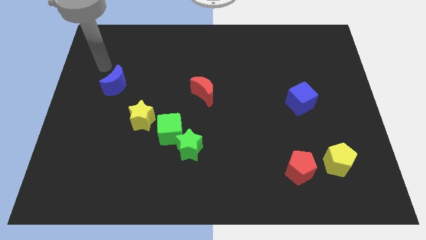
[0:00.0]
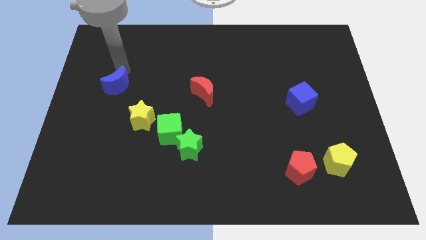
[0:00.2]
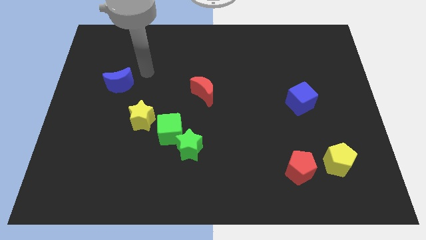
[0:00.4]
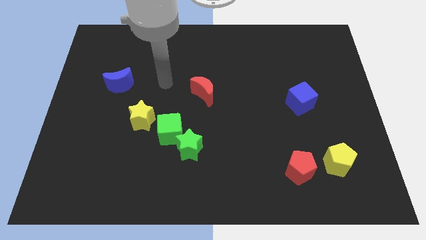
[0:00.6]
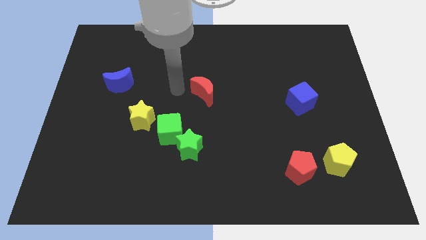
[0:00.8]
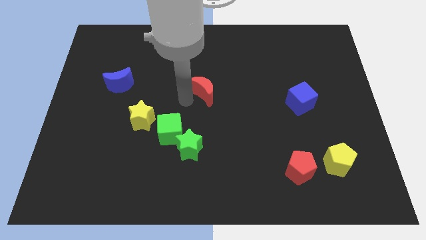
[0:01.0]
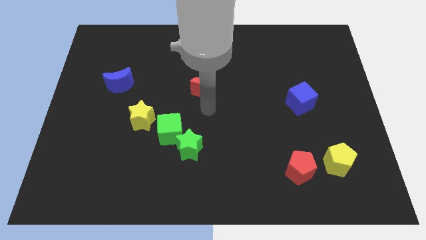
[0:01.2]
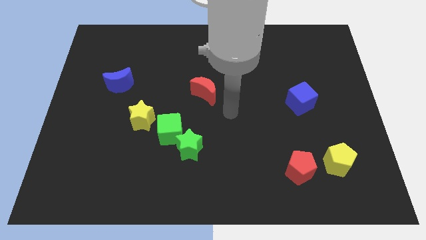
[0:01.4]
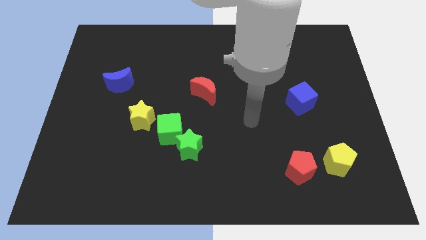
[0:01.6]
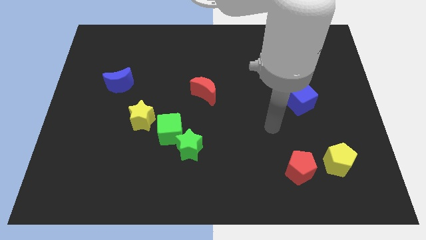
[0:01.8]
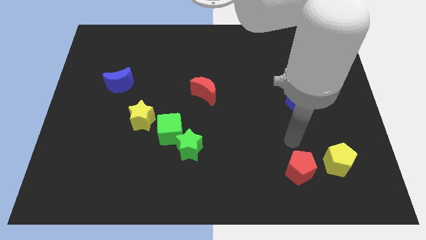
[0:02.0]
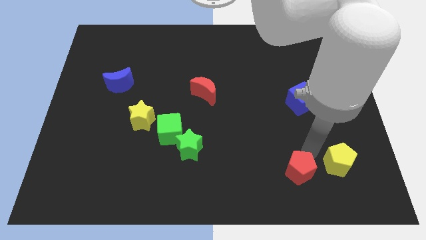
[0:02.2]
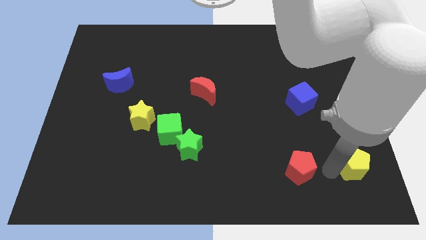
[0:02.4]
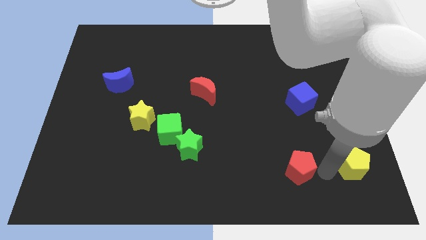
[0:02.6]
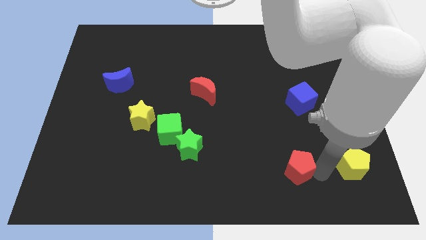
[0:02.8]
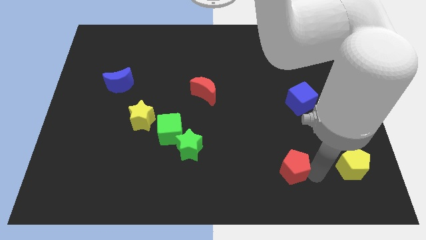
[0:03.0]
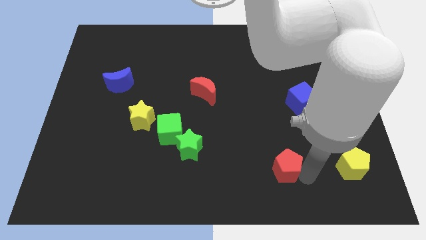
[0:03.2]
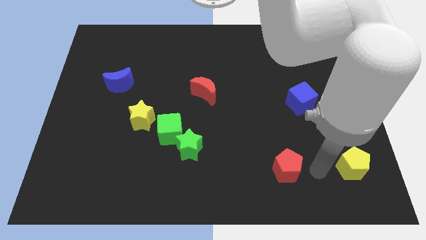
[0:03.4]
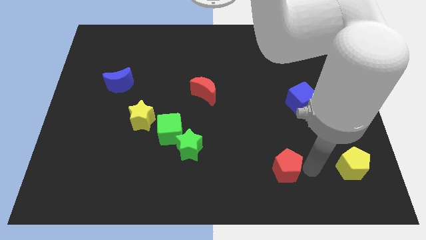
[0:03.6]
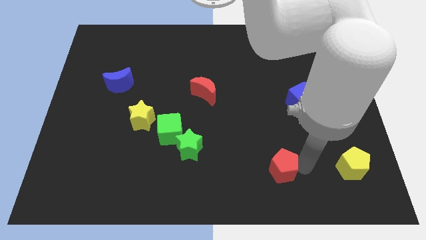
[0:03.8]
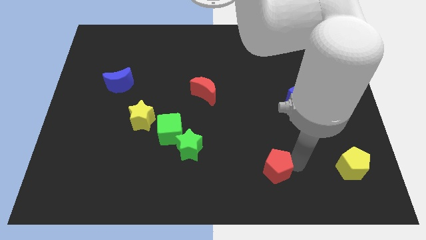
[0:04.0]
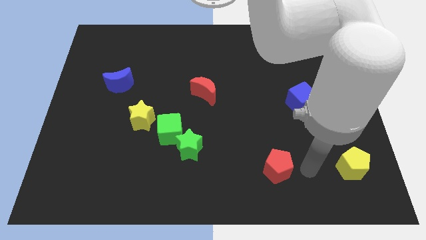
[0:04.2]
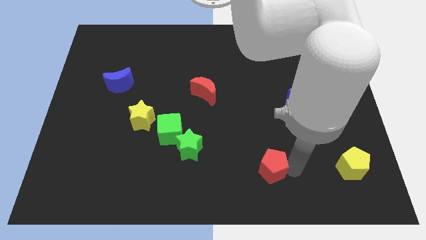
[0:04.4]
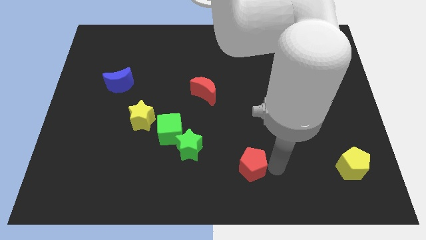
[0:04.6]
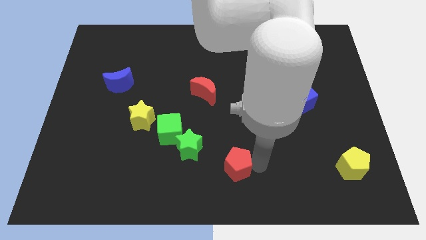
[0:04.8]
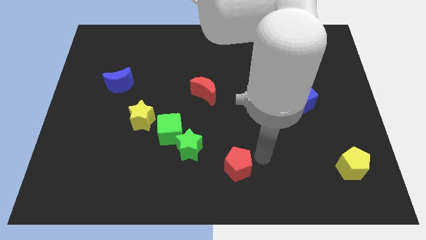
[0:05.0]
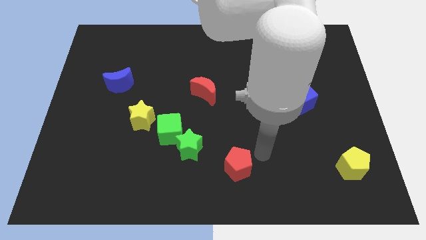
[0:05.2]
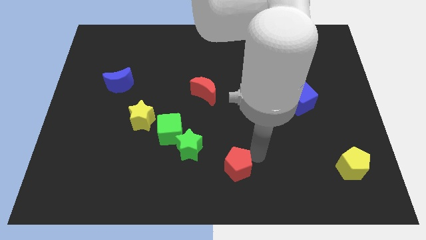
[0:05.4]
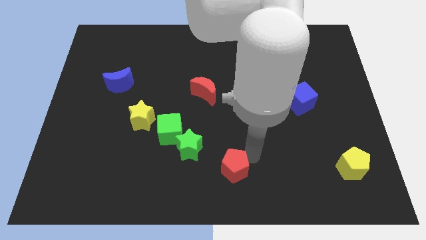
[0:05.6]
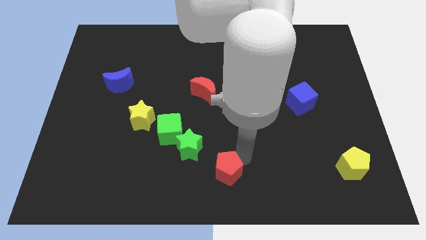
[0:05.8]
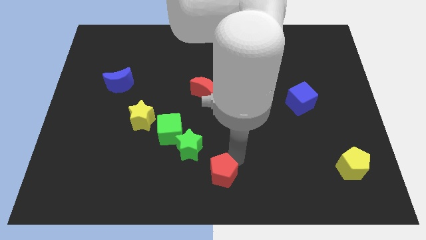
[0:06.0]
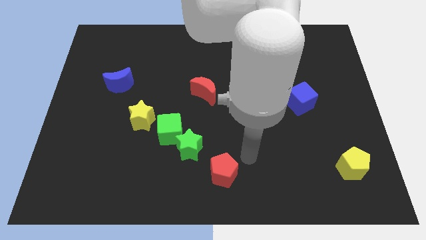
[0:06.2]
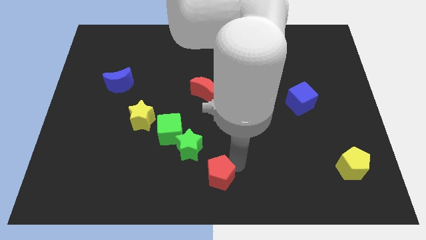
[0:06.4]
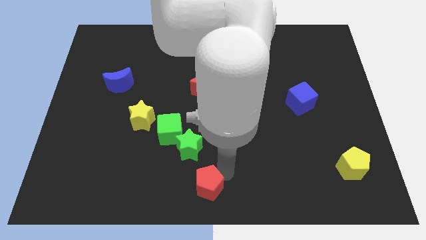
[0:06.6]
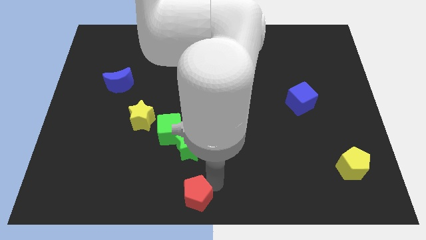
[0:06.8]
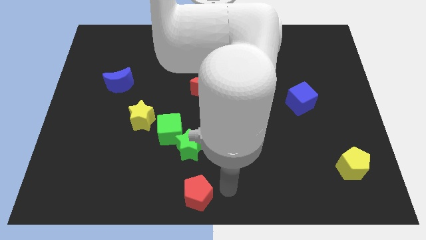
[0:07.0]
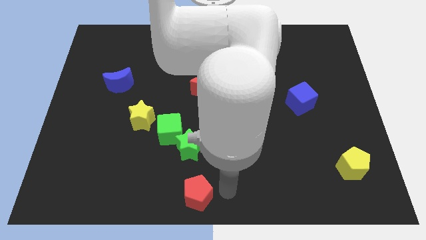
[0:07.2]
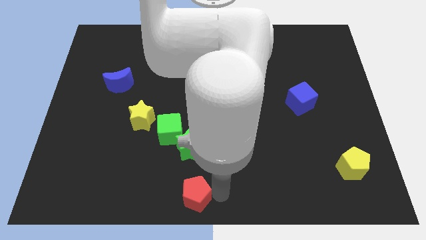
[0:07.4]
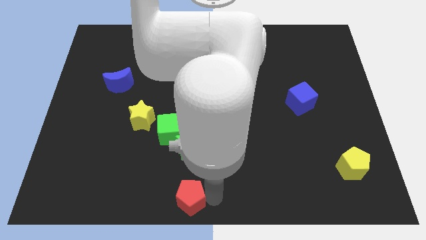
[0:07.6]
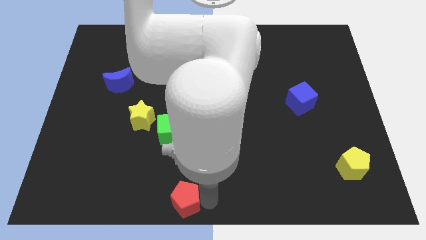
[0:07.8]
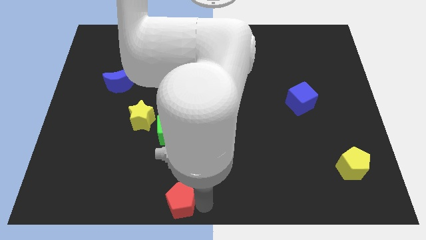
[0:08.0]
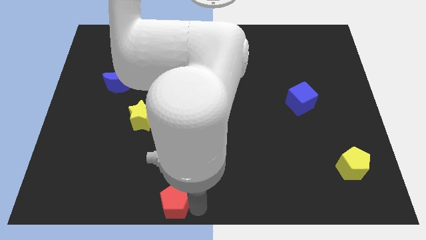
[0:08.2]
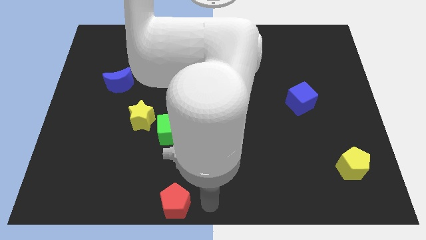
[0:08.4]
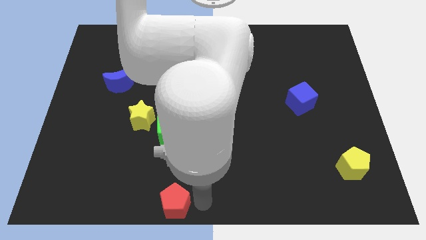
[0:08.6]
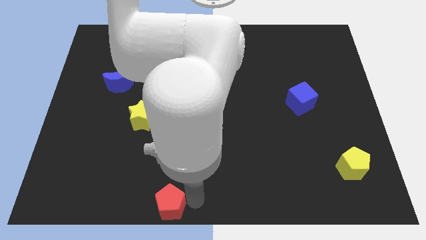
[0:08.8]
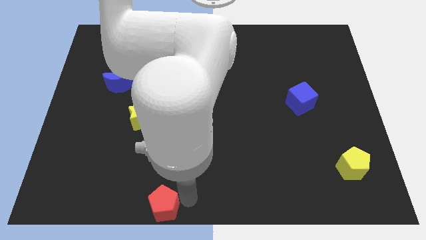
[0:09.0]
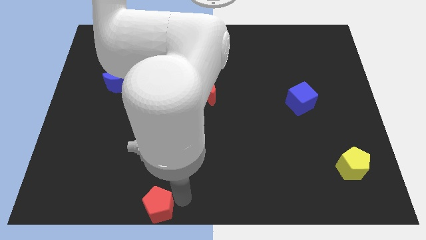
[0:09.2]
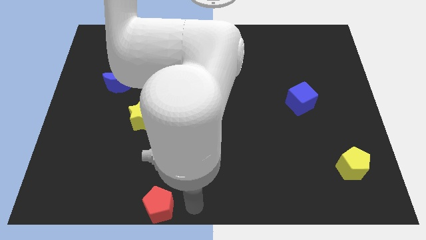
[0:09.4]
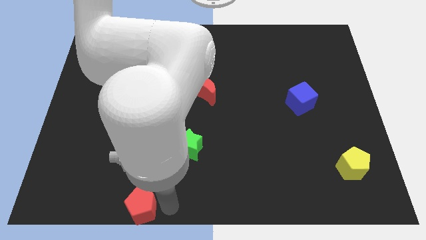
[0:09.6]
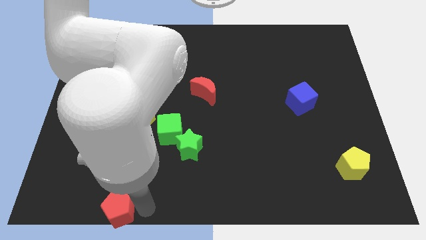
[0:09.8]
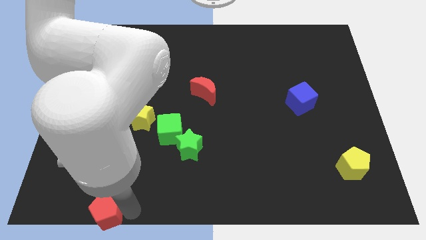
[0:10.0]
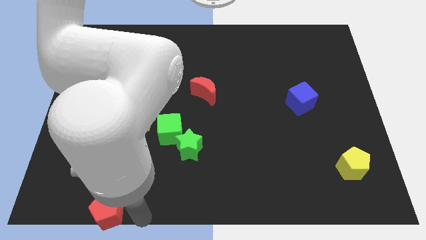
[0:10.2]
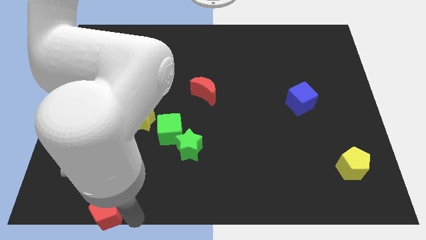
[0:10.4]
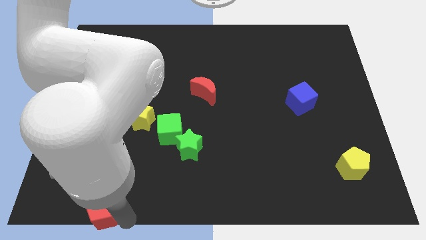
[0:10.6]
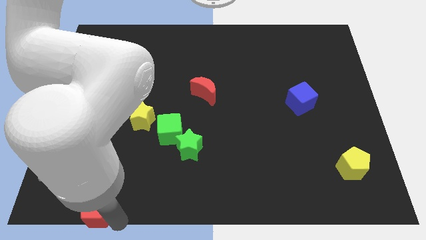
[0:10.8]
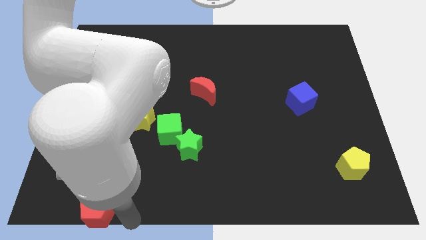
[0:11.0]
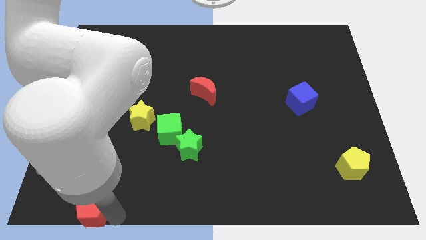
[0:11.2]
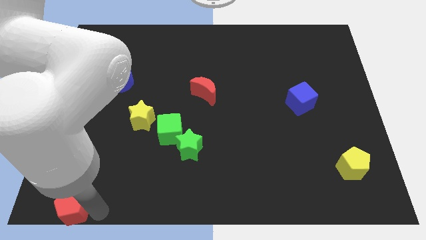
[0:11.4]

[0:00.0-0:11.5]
slide the red pentagon to the lower left corner

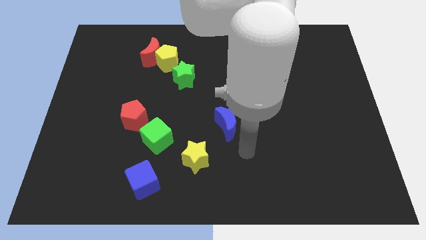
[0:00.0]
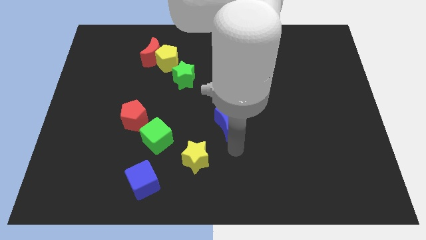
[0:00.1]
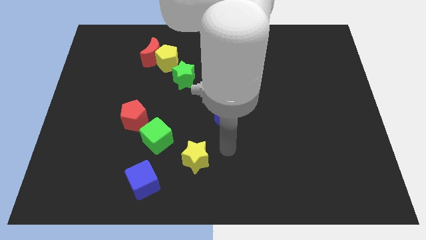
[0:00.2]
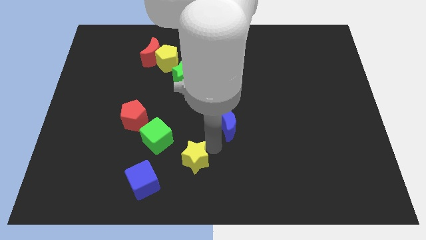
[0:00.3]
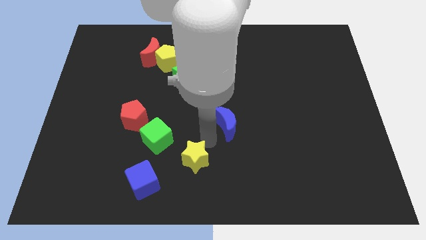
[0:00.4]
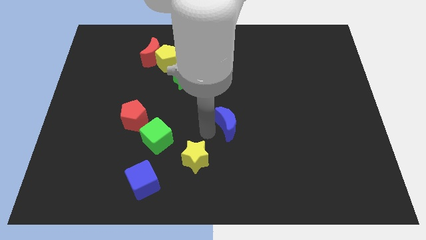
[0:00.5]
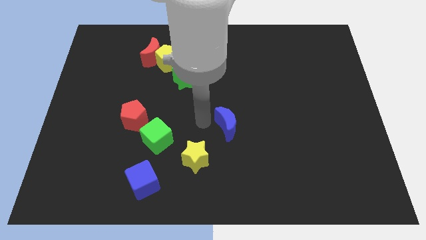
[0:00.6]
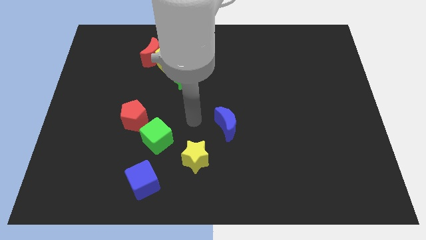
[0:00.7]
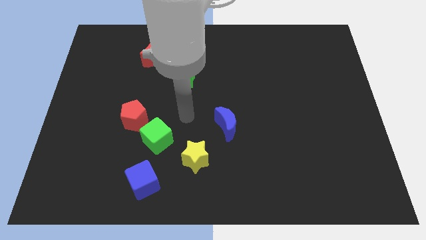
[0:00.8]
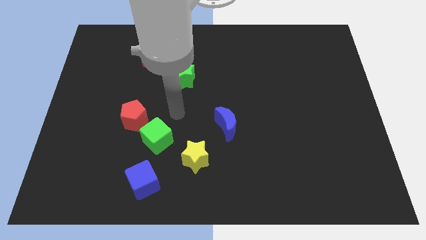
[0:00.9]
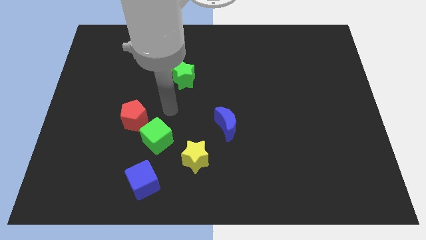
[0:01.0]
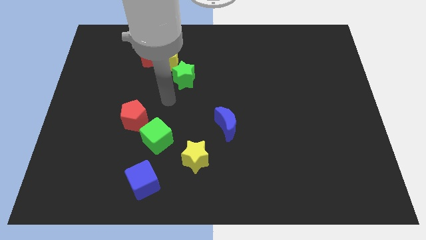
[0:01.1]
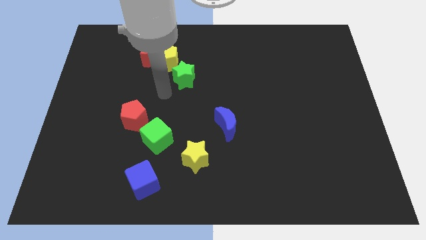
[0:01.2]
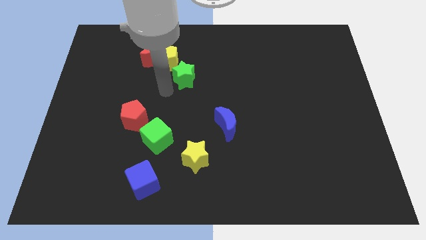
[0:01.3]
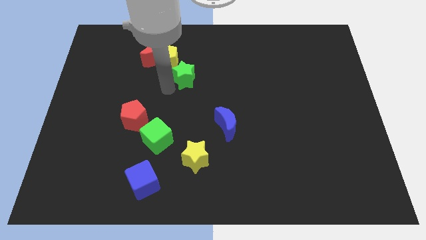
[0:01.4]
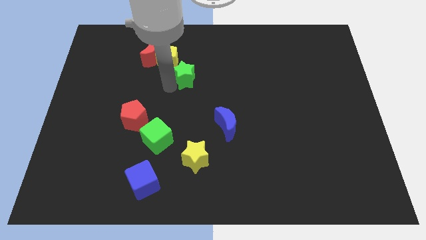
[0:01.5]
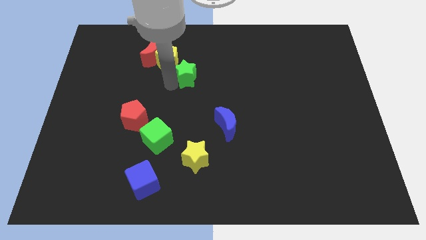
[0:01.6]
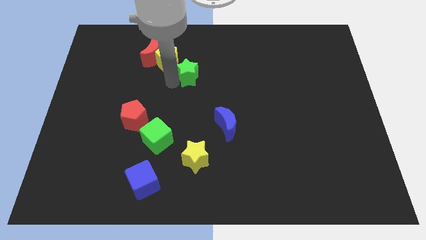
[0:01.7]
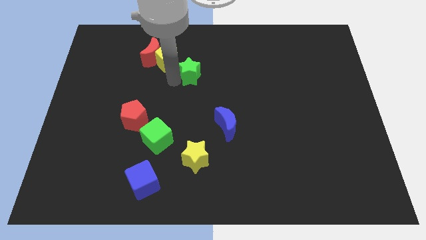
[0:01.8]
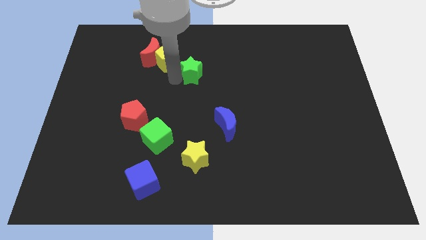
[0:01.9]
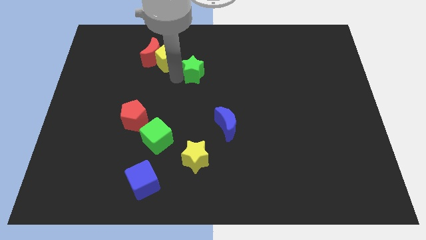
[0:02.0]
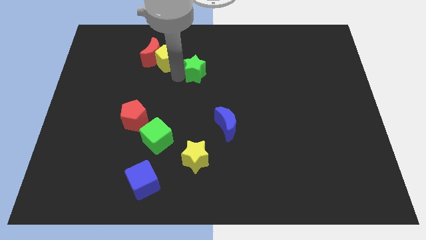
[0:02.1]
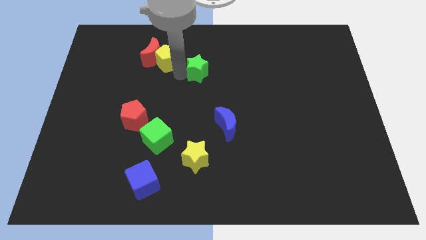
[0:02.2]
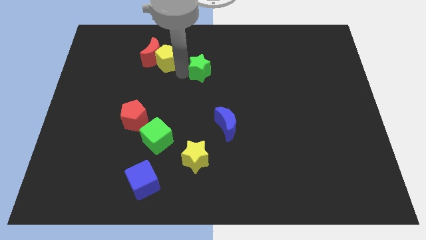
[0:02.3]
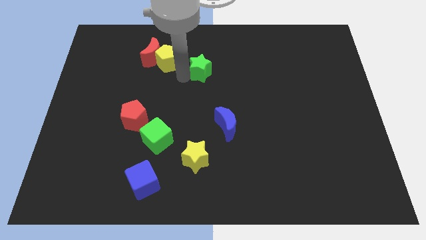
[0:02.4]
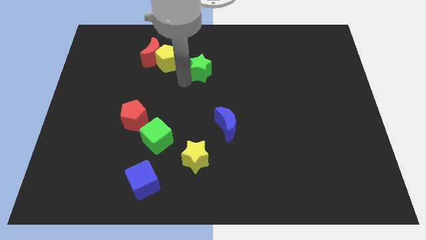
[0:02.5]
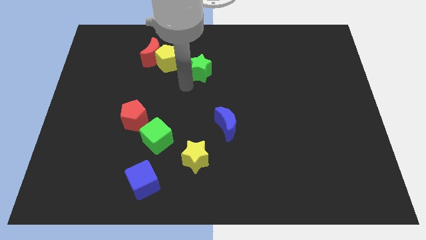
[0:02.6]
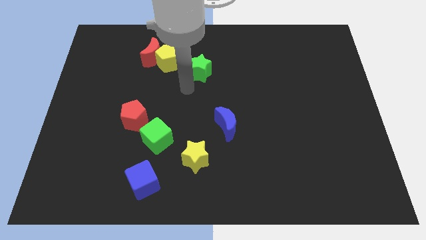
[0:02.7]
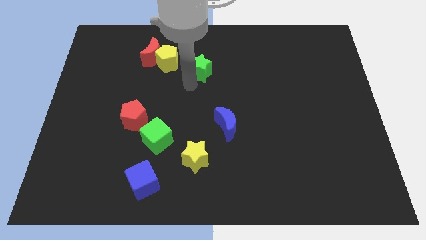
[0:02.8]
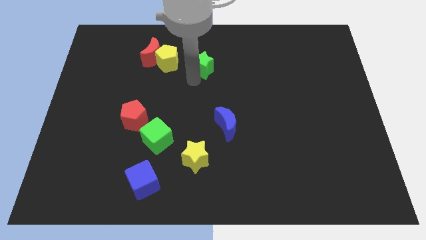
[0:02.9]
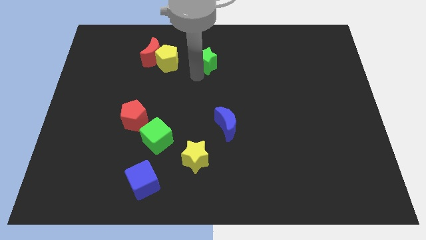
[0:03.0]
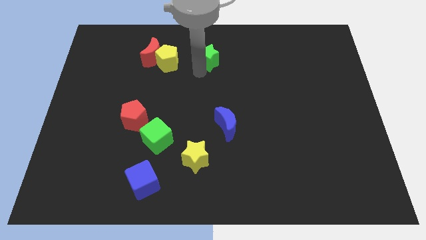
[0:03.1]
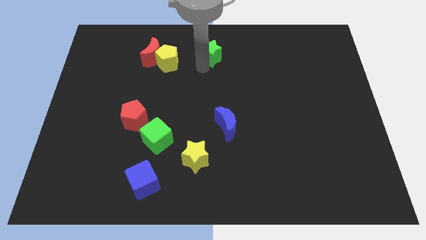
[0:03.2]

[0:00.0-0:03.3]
put the green star to the towards your base
